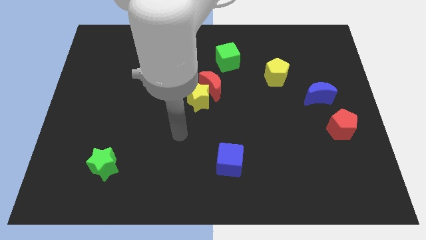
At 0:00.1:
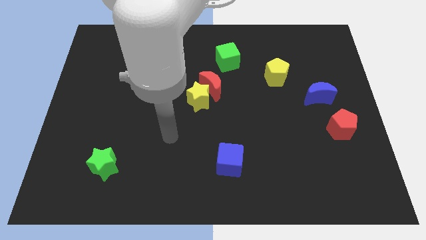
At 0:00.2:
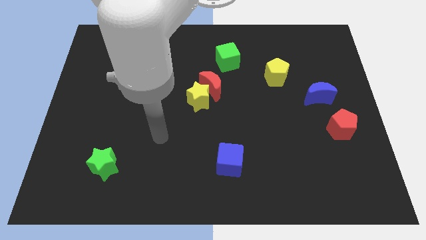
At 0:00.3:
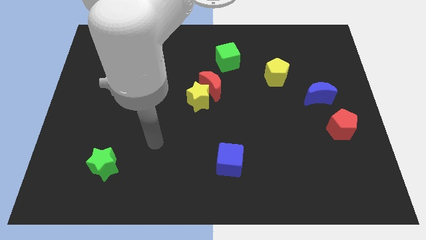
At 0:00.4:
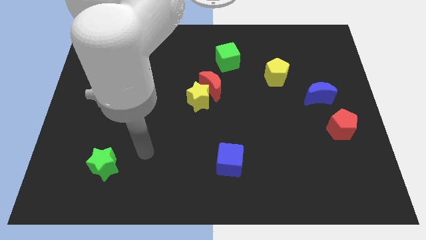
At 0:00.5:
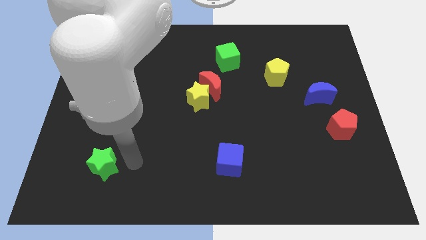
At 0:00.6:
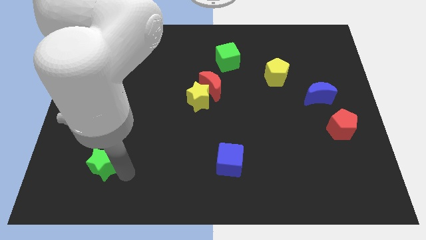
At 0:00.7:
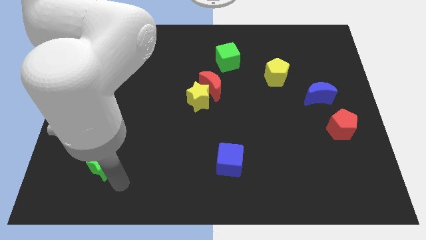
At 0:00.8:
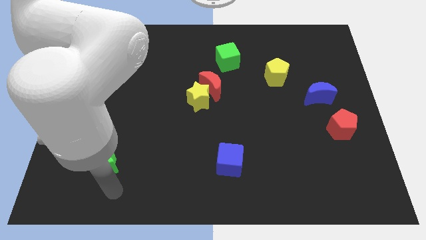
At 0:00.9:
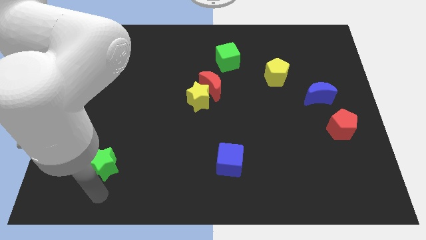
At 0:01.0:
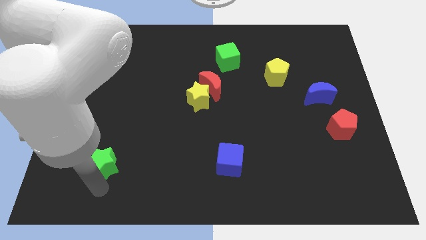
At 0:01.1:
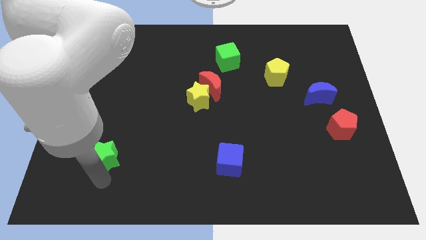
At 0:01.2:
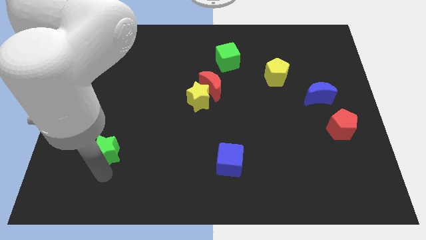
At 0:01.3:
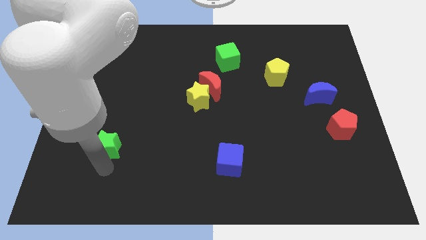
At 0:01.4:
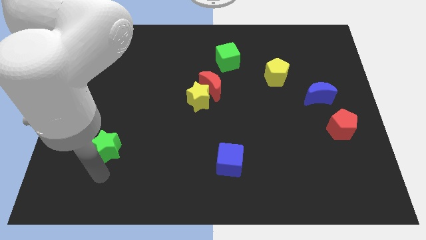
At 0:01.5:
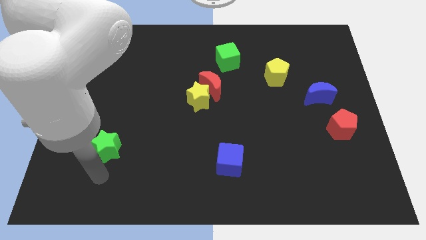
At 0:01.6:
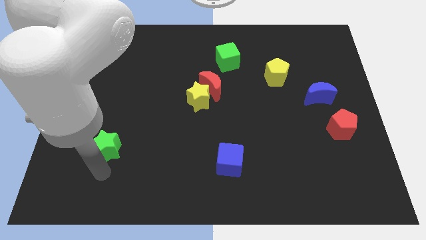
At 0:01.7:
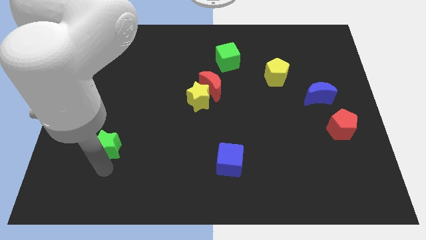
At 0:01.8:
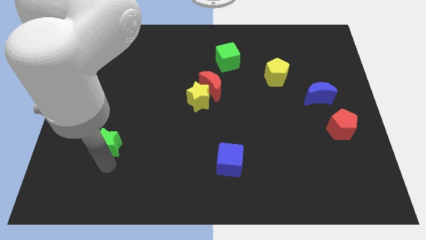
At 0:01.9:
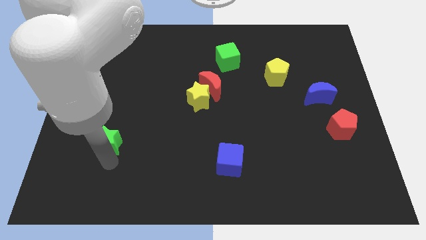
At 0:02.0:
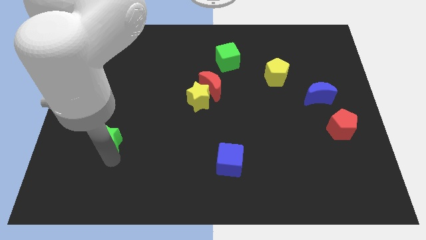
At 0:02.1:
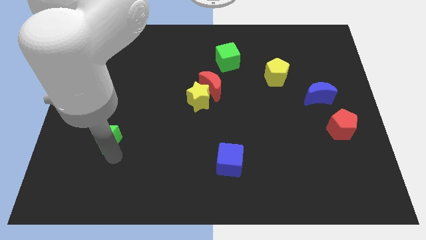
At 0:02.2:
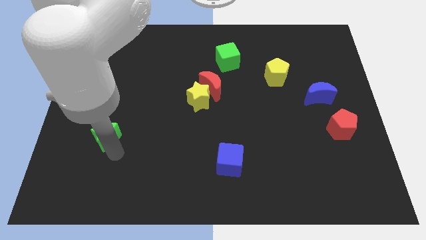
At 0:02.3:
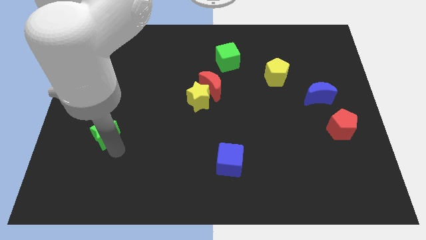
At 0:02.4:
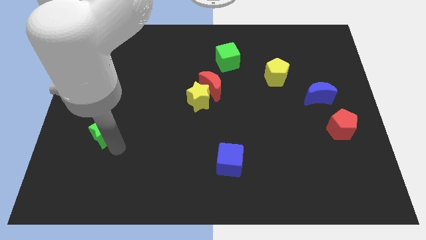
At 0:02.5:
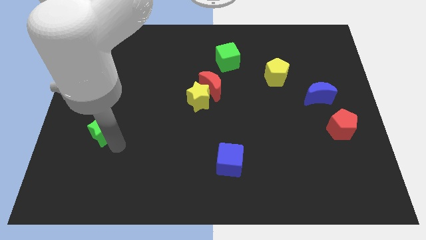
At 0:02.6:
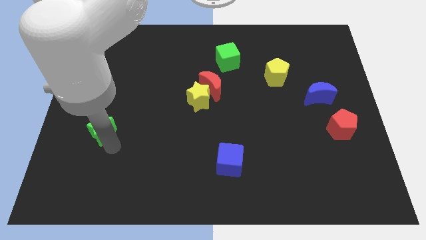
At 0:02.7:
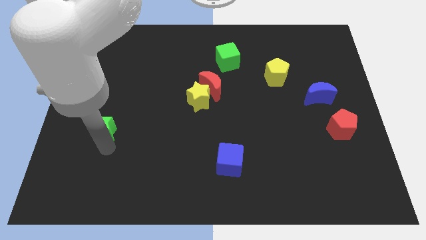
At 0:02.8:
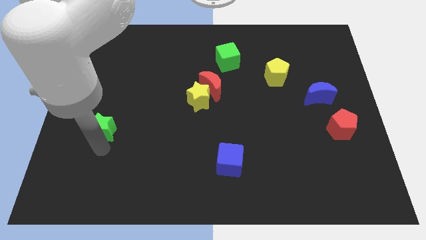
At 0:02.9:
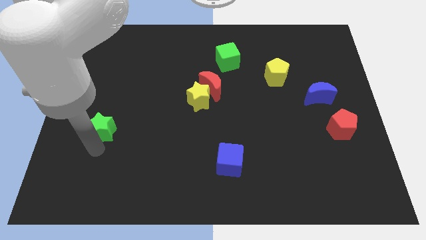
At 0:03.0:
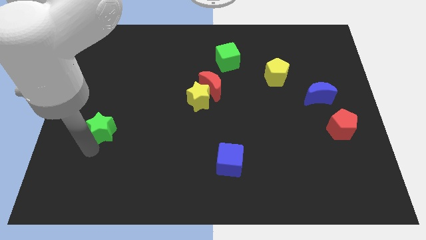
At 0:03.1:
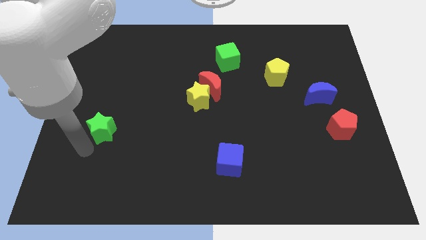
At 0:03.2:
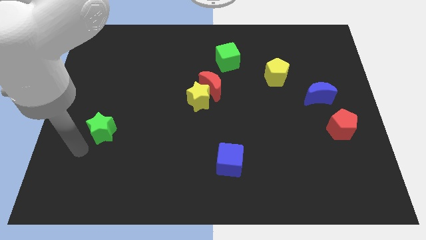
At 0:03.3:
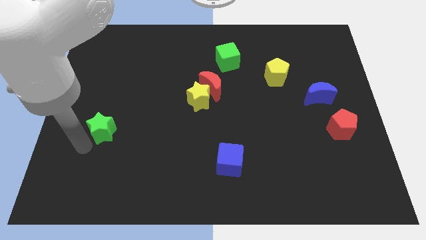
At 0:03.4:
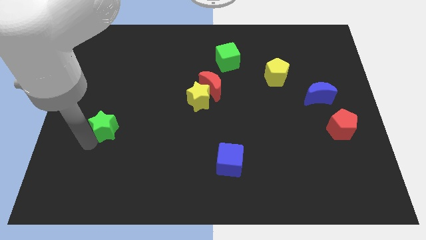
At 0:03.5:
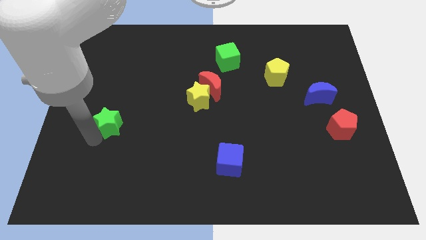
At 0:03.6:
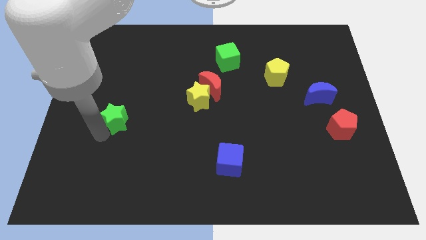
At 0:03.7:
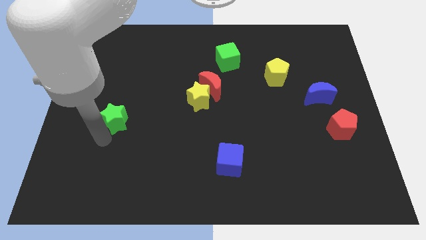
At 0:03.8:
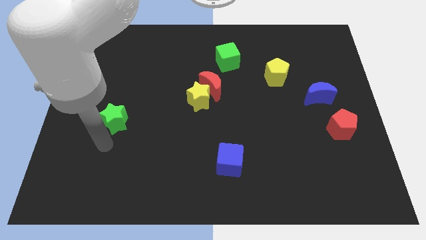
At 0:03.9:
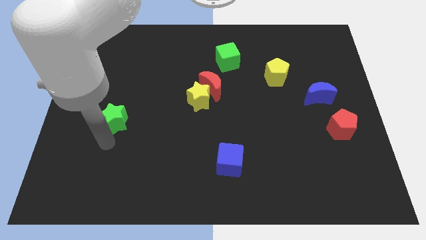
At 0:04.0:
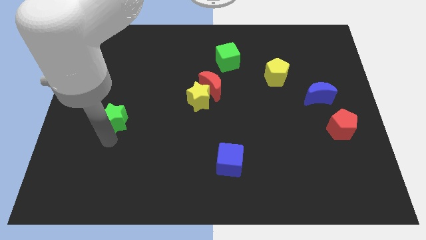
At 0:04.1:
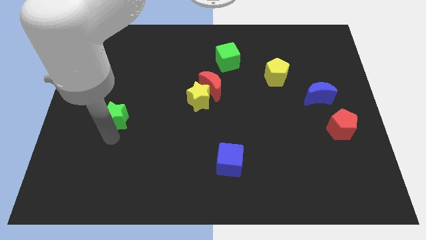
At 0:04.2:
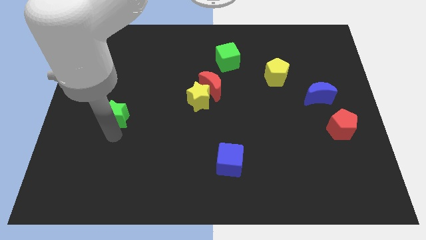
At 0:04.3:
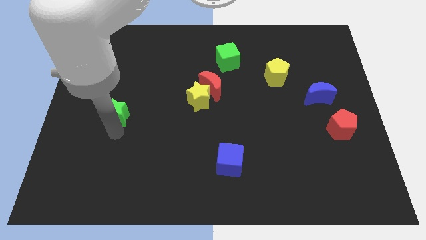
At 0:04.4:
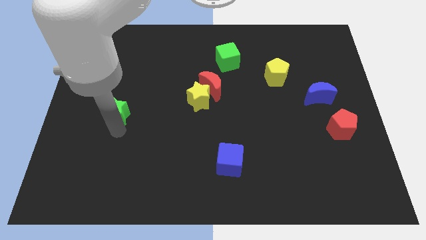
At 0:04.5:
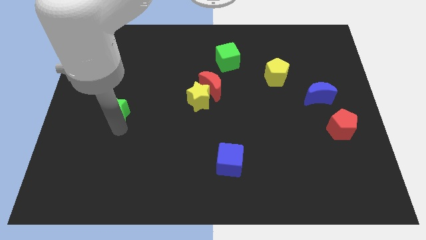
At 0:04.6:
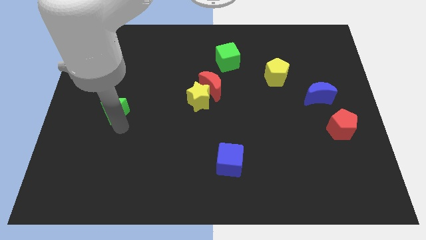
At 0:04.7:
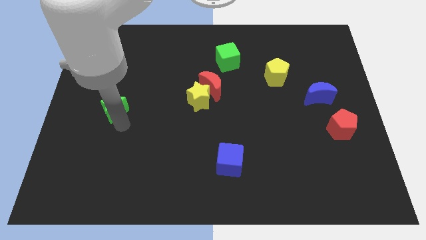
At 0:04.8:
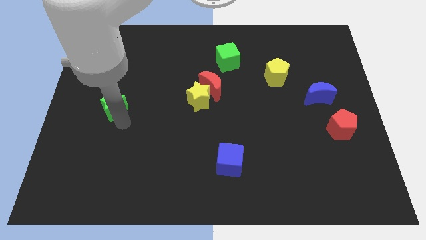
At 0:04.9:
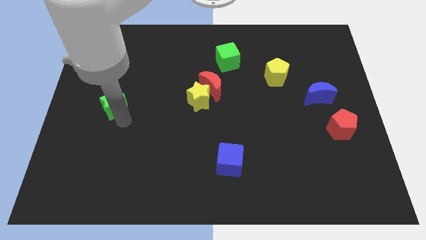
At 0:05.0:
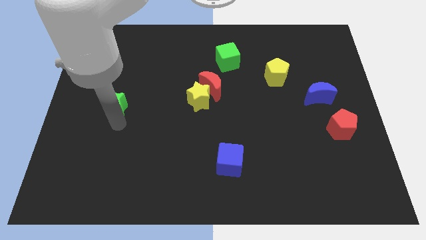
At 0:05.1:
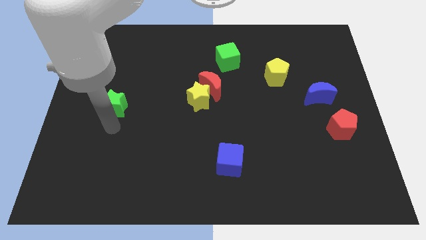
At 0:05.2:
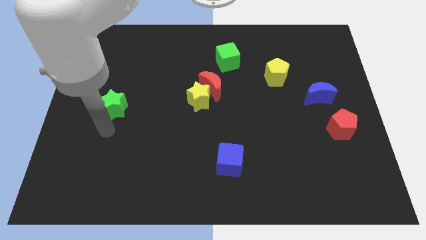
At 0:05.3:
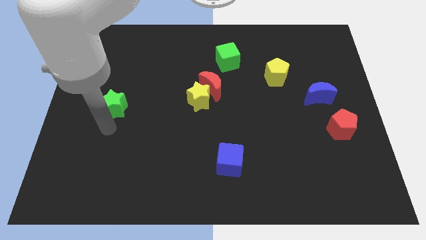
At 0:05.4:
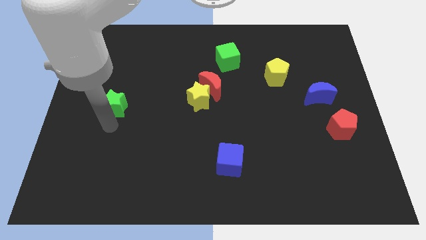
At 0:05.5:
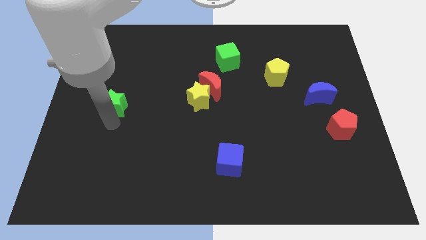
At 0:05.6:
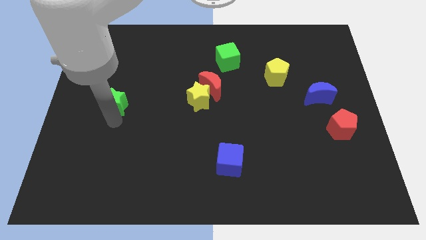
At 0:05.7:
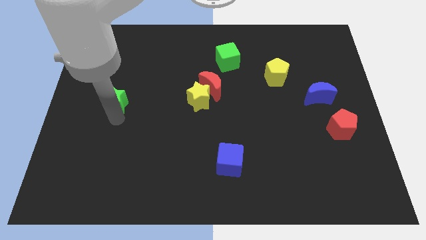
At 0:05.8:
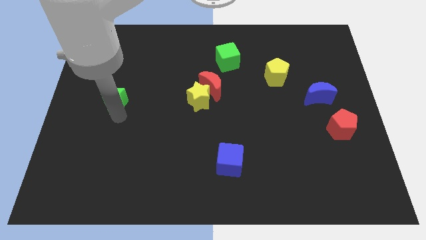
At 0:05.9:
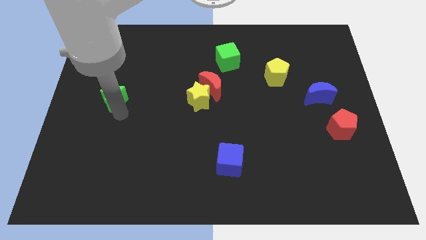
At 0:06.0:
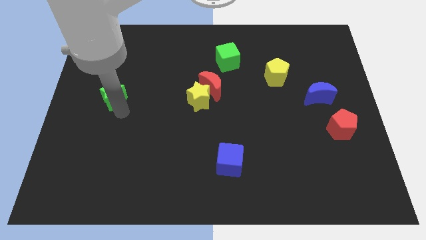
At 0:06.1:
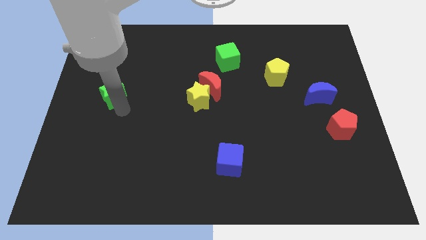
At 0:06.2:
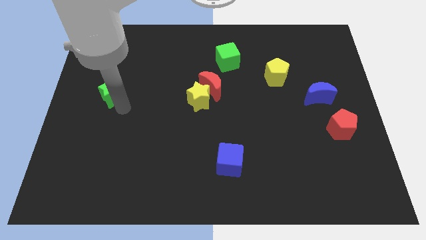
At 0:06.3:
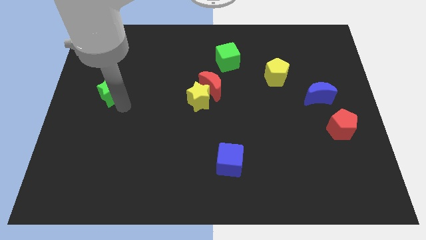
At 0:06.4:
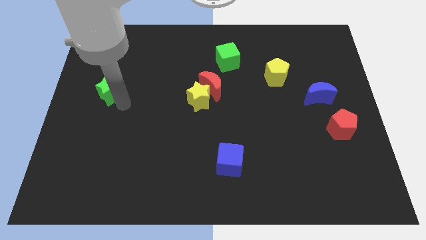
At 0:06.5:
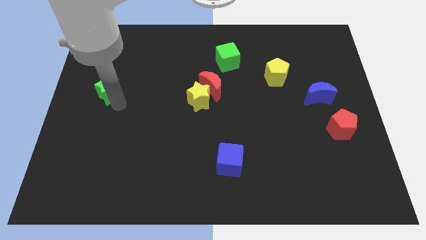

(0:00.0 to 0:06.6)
slide the green star upwards

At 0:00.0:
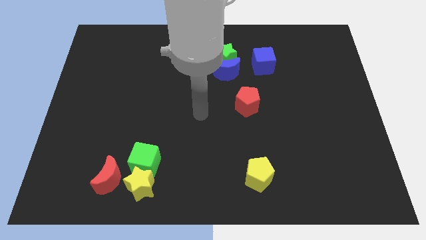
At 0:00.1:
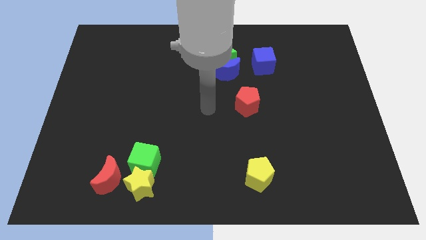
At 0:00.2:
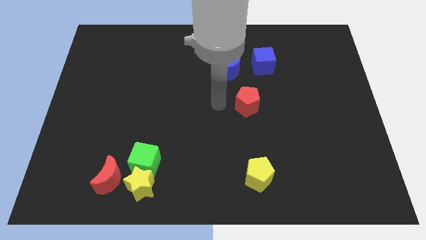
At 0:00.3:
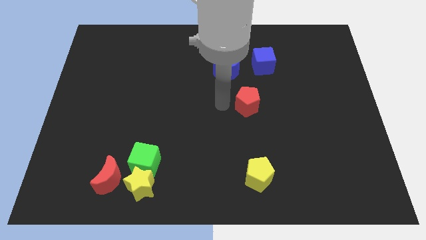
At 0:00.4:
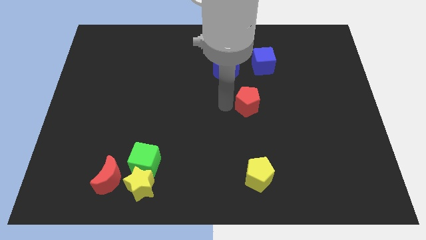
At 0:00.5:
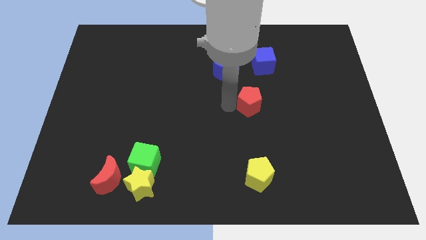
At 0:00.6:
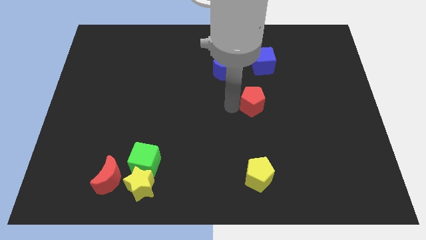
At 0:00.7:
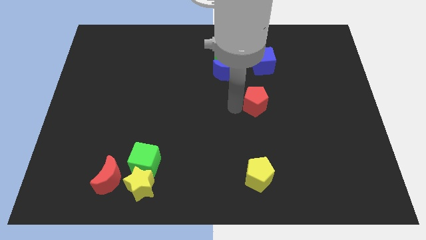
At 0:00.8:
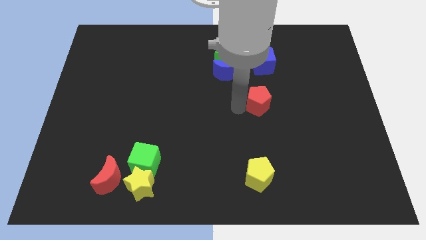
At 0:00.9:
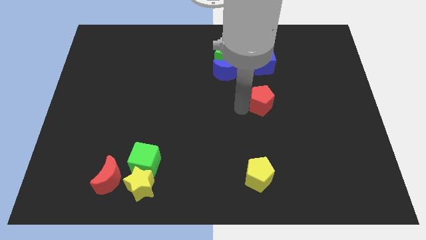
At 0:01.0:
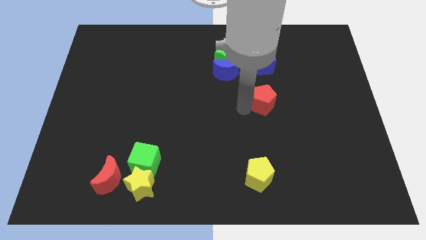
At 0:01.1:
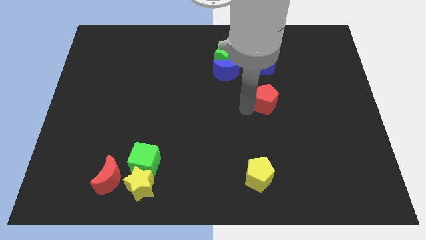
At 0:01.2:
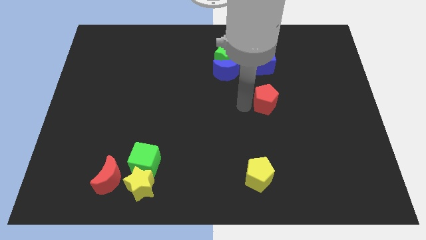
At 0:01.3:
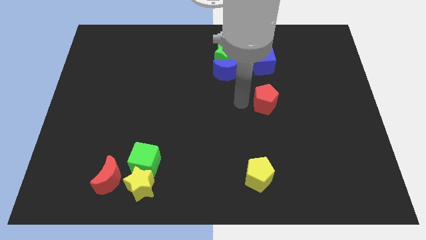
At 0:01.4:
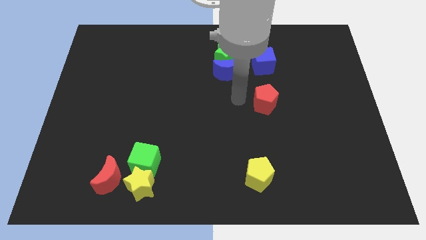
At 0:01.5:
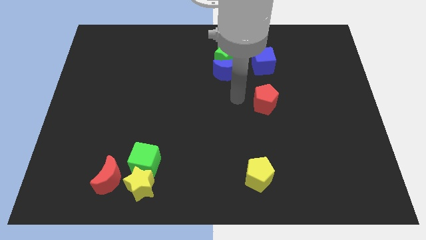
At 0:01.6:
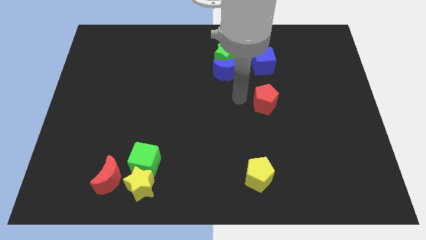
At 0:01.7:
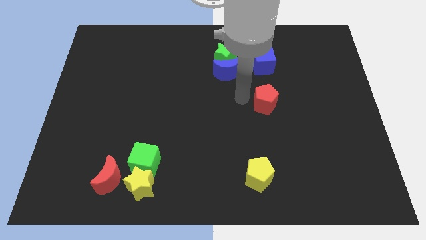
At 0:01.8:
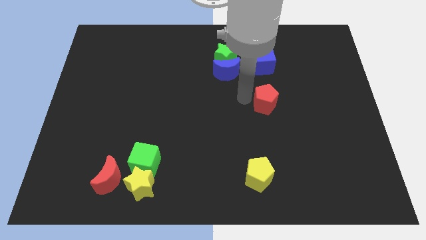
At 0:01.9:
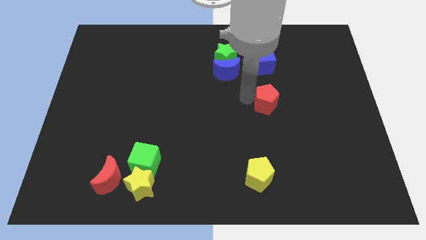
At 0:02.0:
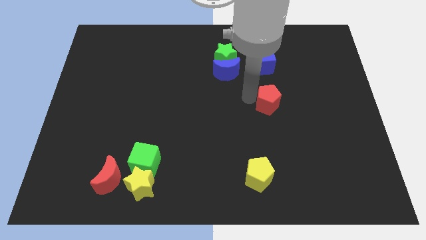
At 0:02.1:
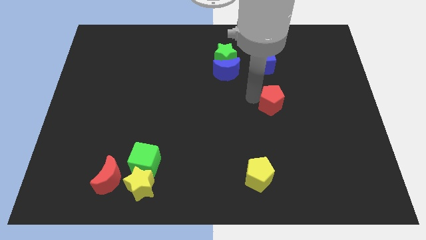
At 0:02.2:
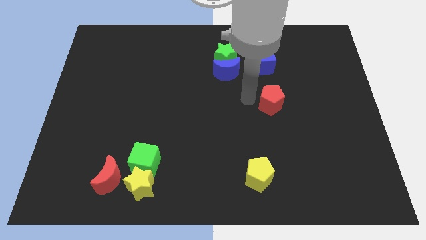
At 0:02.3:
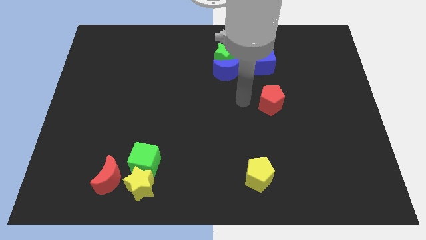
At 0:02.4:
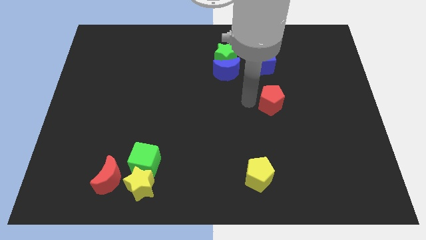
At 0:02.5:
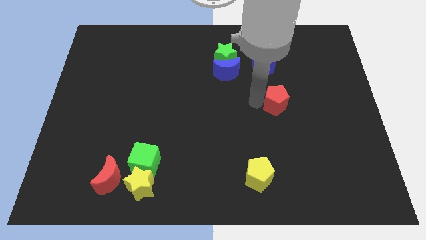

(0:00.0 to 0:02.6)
slightly slide the red pentagon right
